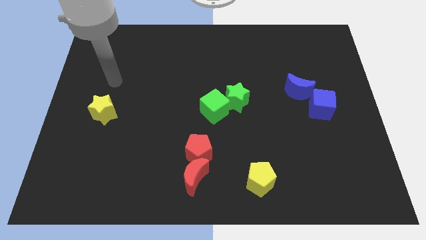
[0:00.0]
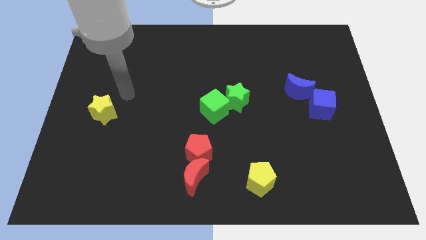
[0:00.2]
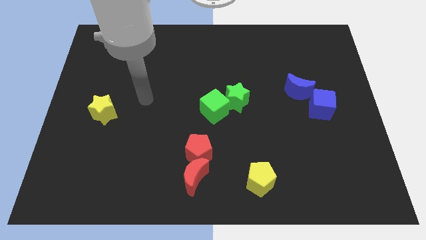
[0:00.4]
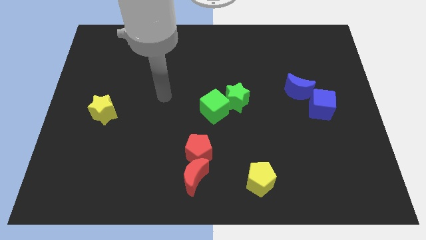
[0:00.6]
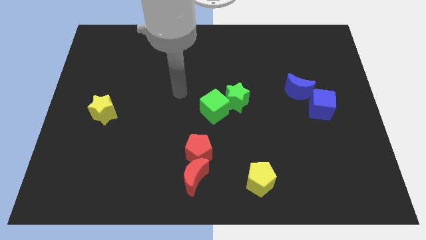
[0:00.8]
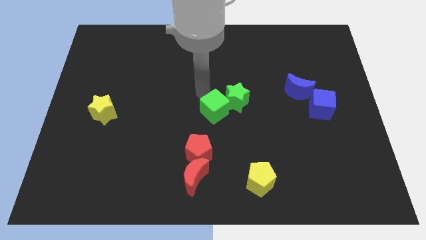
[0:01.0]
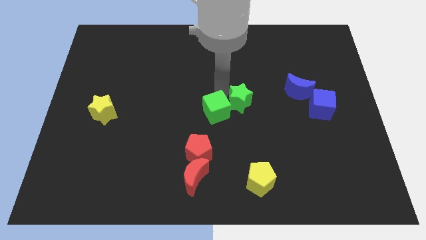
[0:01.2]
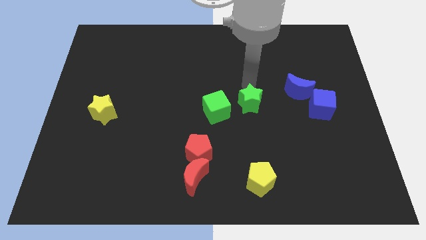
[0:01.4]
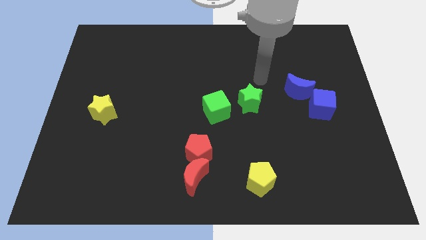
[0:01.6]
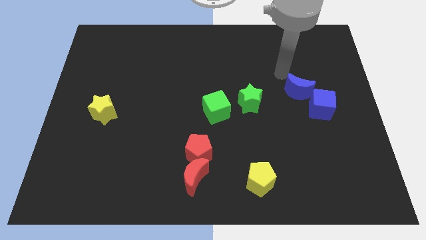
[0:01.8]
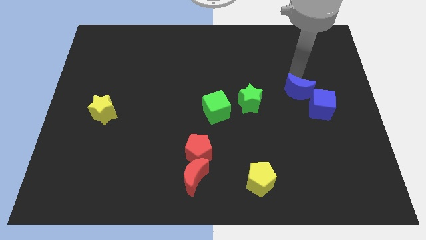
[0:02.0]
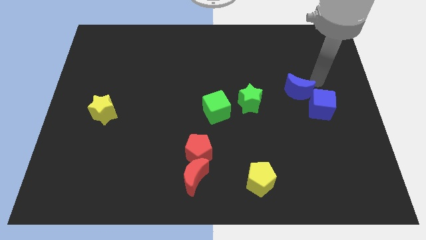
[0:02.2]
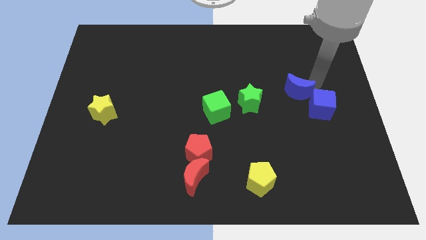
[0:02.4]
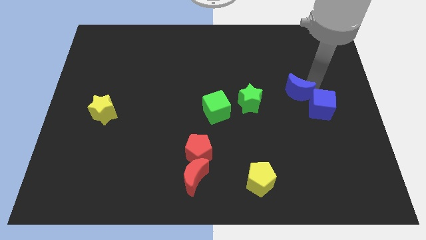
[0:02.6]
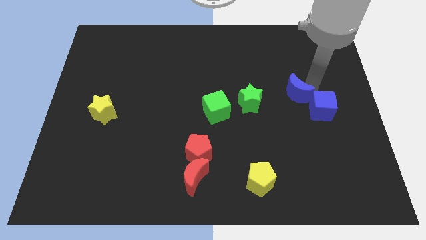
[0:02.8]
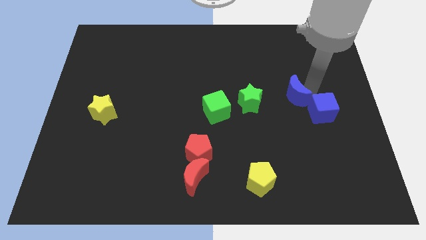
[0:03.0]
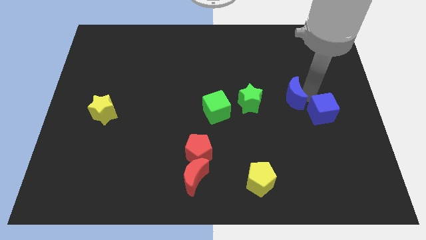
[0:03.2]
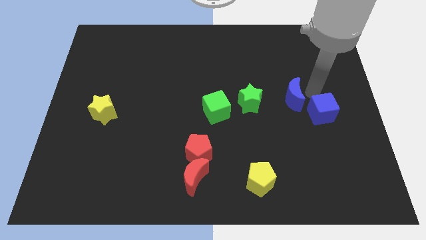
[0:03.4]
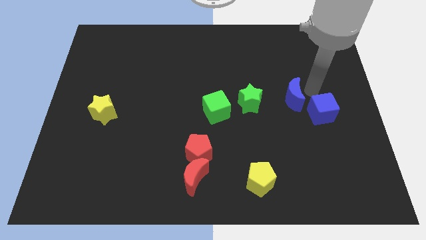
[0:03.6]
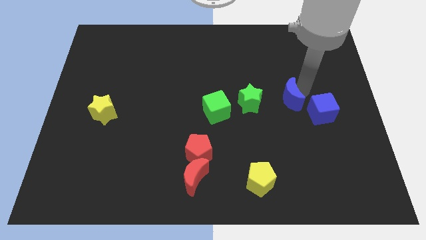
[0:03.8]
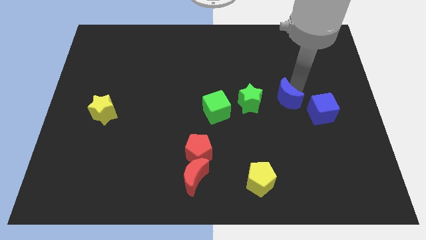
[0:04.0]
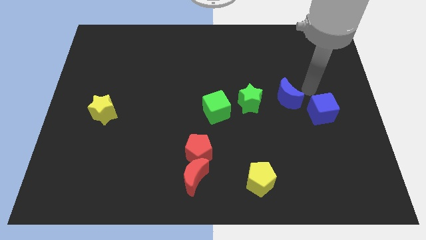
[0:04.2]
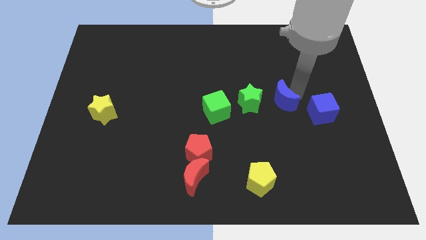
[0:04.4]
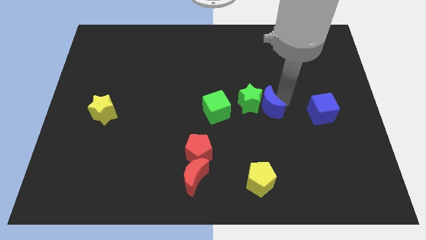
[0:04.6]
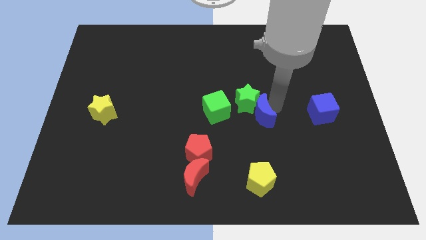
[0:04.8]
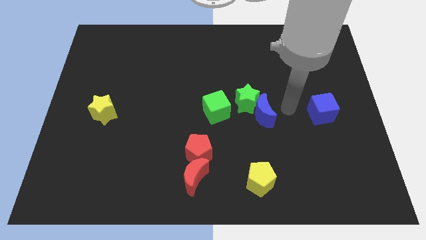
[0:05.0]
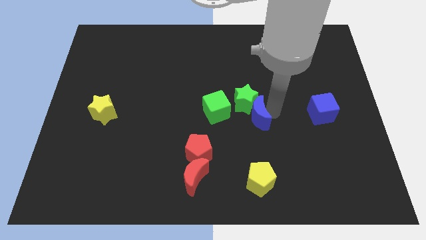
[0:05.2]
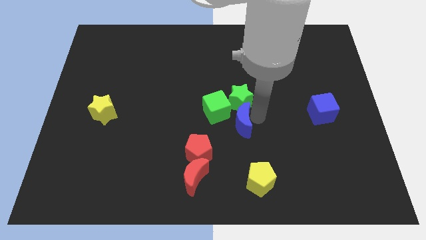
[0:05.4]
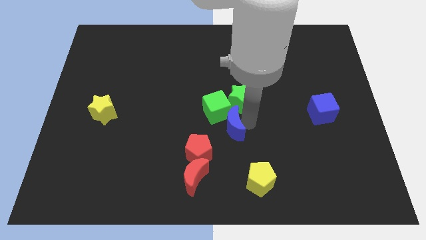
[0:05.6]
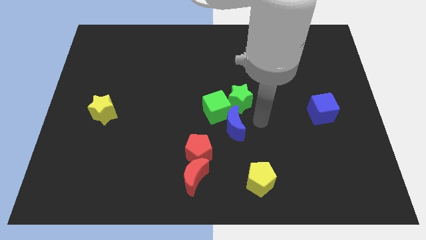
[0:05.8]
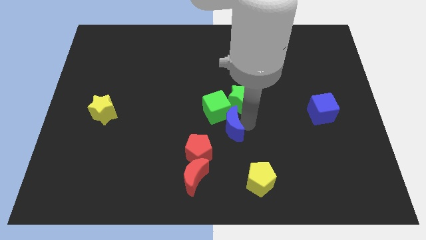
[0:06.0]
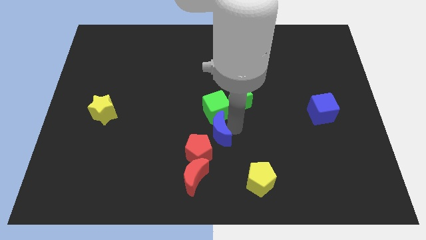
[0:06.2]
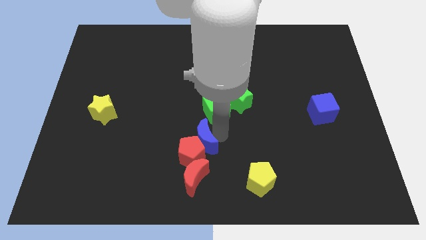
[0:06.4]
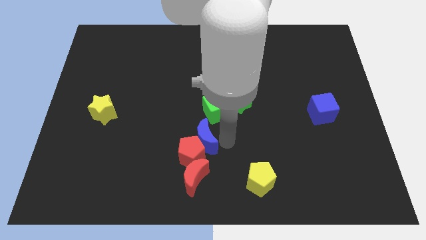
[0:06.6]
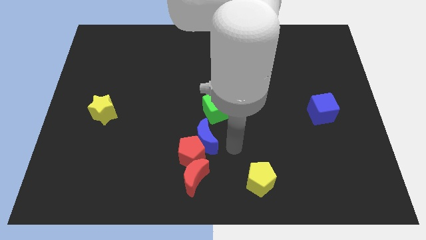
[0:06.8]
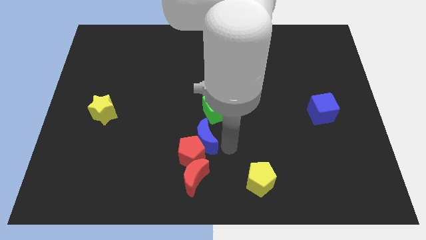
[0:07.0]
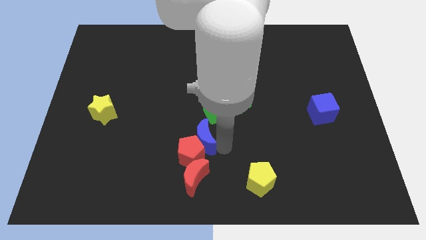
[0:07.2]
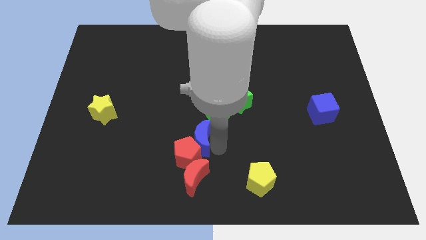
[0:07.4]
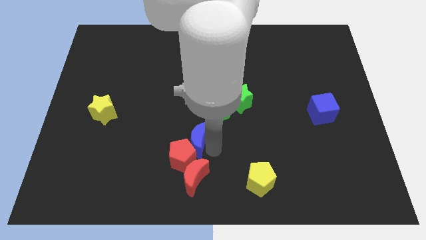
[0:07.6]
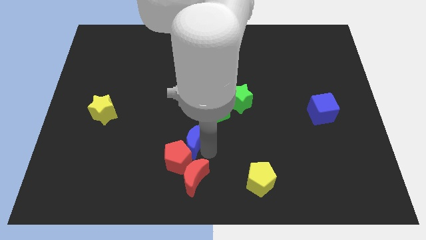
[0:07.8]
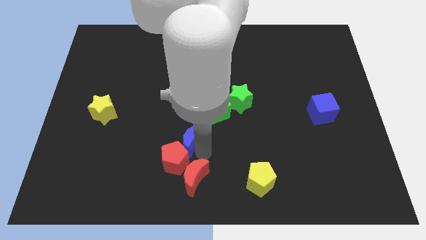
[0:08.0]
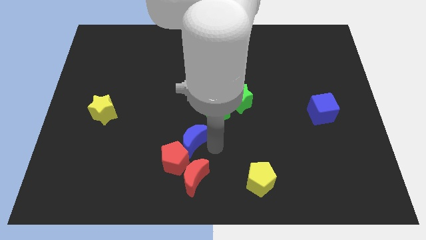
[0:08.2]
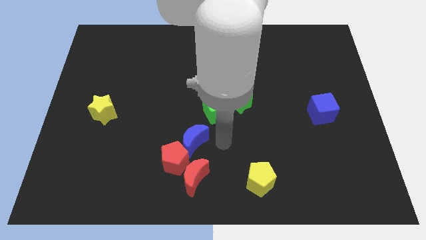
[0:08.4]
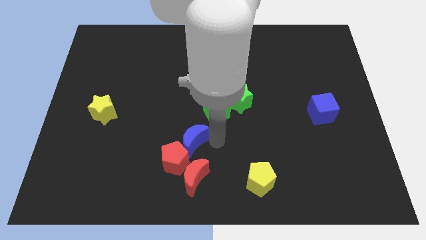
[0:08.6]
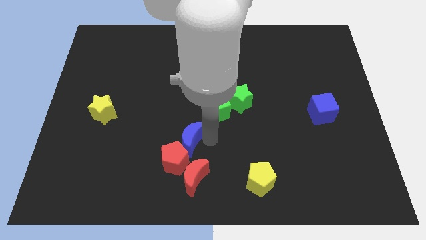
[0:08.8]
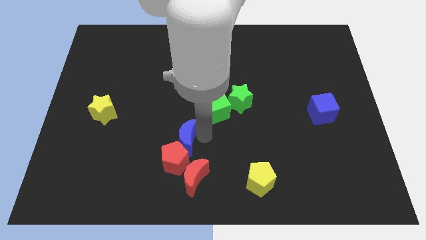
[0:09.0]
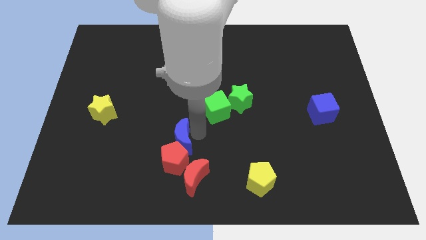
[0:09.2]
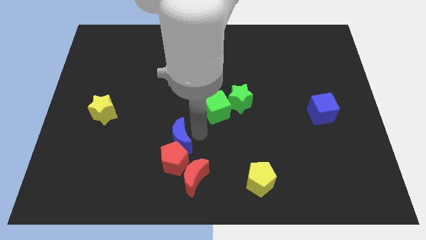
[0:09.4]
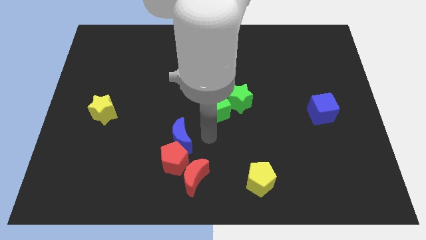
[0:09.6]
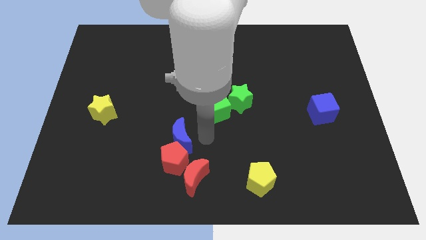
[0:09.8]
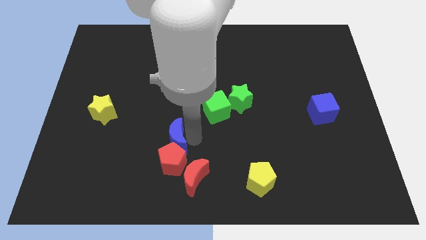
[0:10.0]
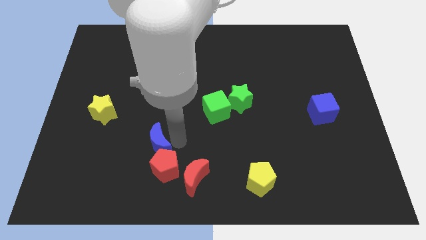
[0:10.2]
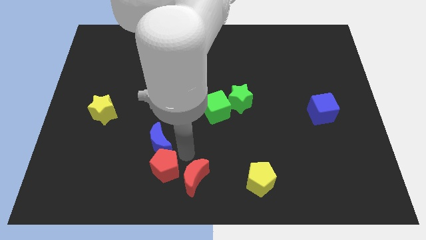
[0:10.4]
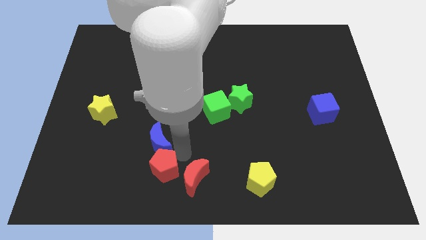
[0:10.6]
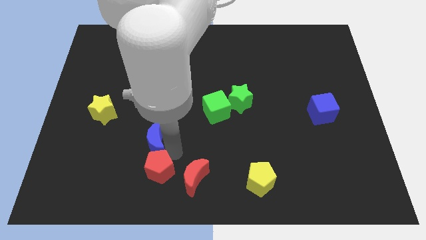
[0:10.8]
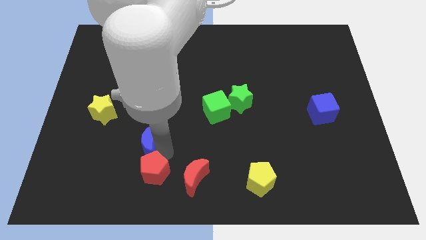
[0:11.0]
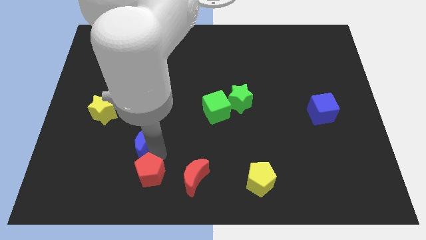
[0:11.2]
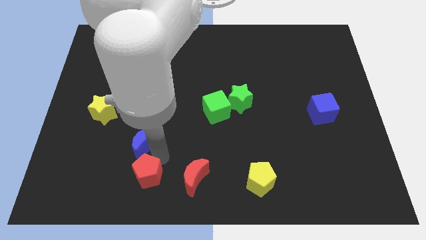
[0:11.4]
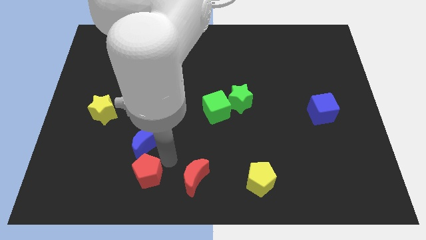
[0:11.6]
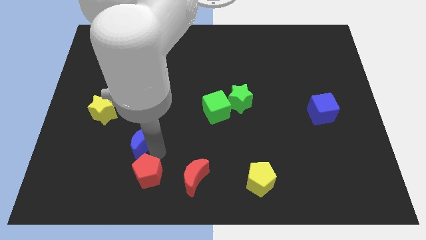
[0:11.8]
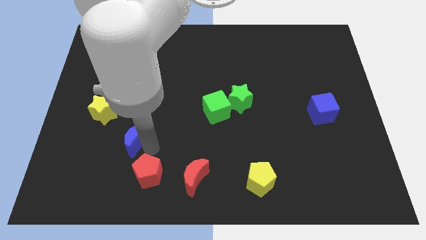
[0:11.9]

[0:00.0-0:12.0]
slide the blue moon to the bottom right of the yellow star

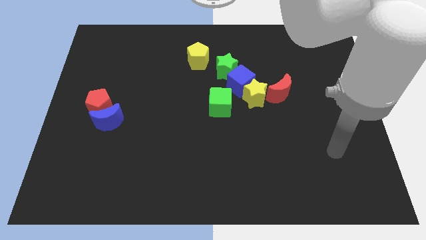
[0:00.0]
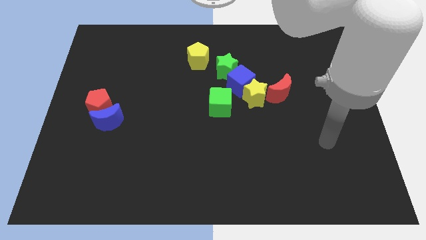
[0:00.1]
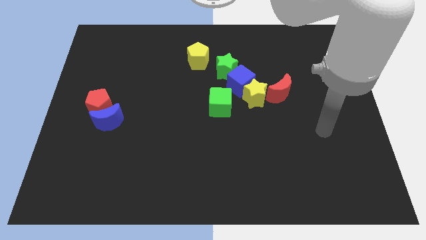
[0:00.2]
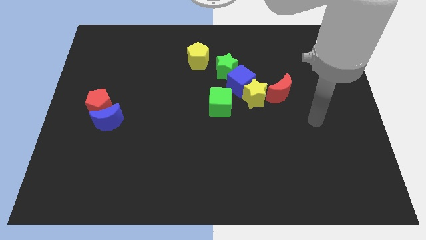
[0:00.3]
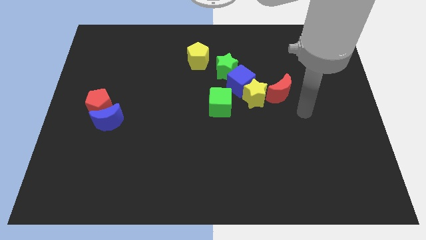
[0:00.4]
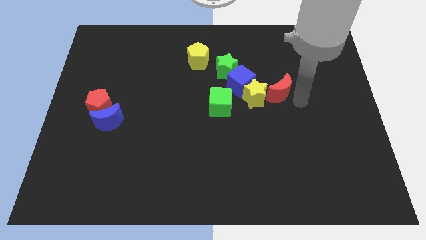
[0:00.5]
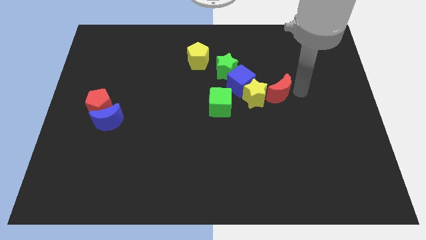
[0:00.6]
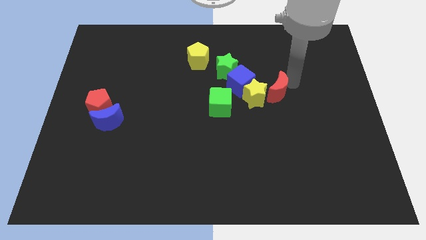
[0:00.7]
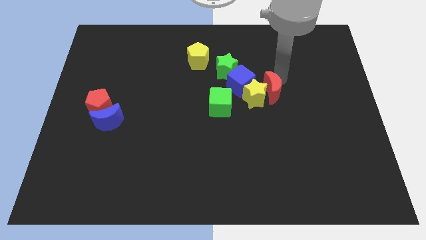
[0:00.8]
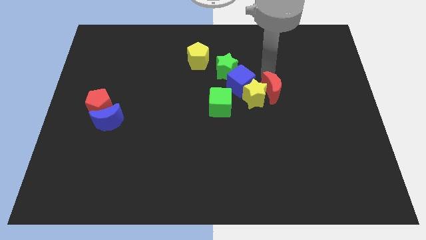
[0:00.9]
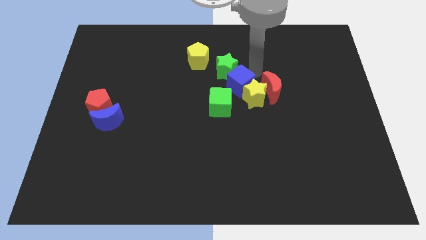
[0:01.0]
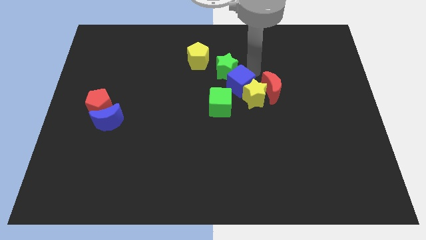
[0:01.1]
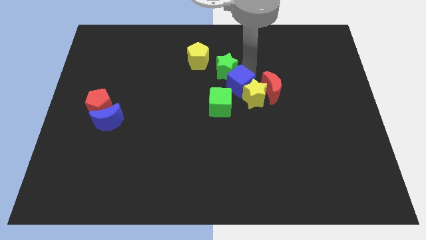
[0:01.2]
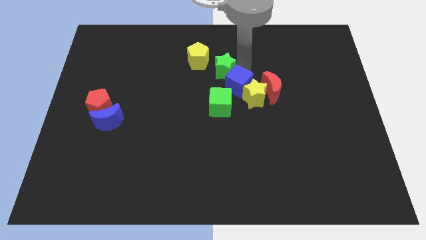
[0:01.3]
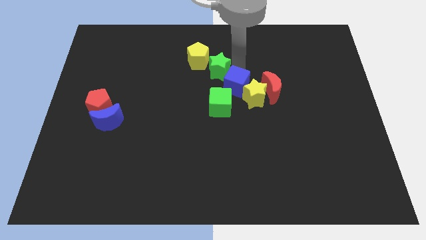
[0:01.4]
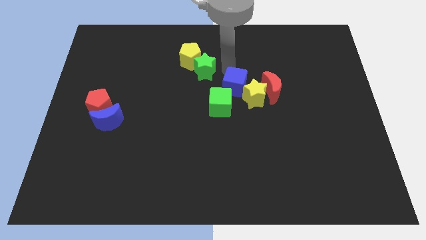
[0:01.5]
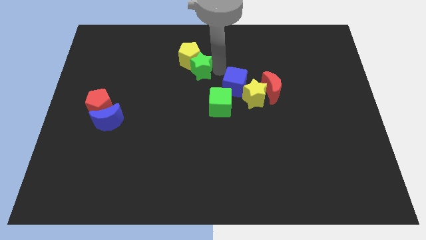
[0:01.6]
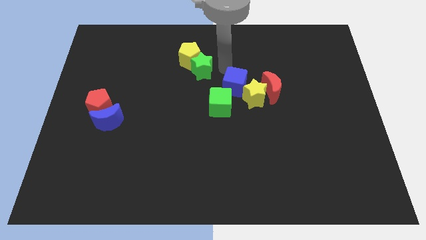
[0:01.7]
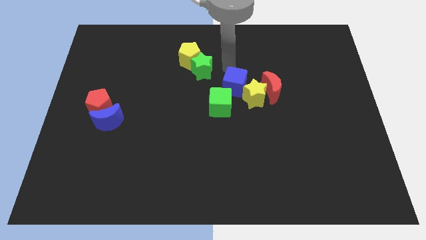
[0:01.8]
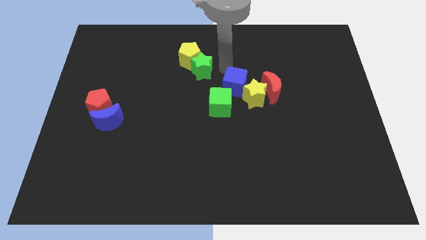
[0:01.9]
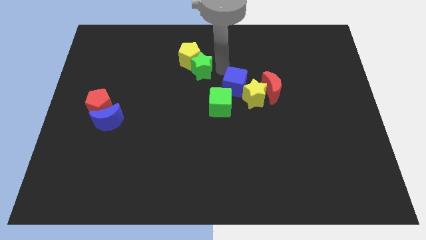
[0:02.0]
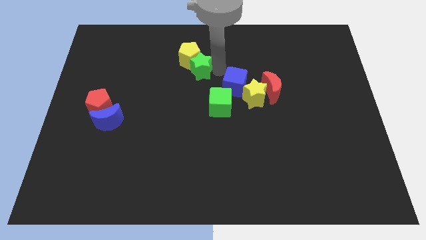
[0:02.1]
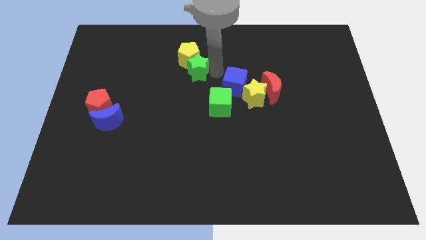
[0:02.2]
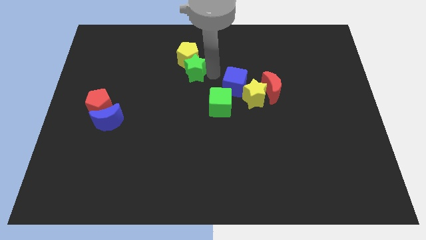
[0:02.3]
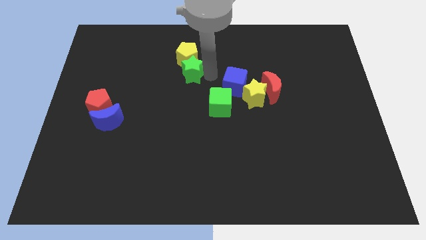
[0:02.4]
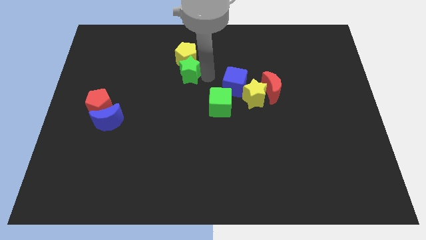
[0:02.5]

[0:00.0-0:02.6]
push the green star to the bottom left of the yellow pentagon
